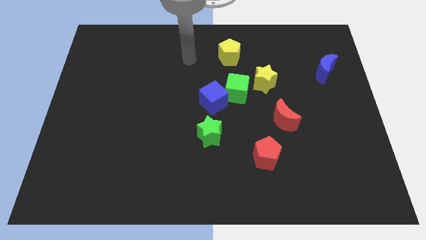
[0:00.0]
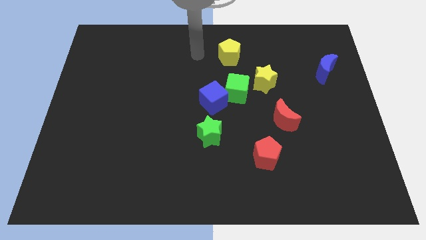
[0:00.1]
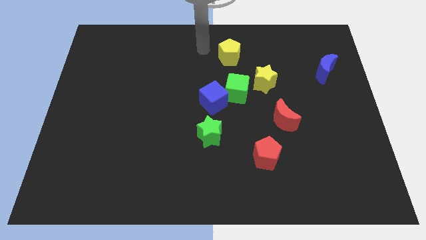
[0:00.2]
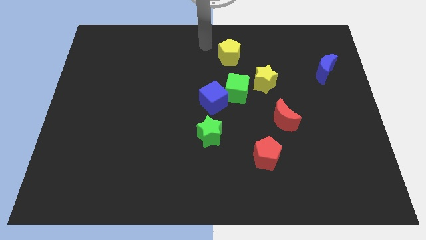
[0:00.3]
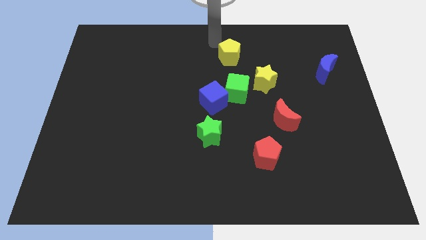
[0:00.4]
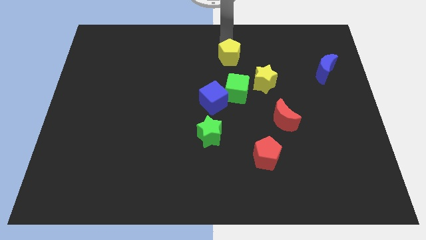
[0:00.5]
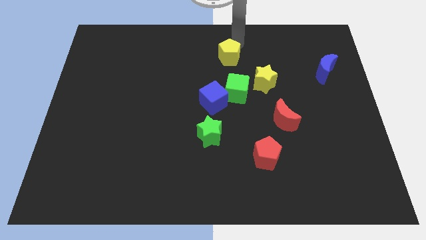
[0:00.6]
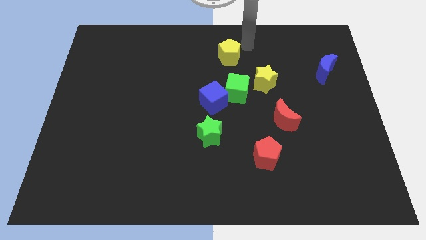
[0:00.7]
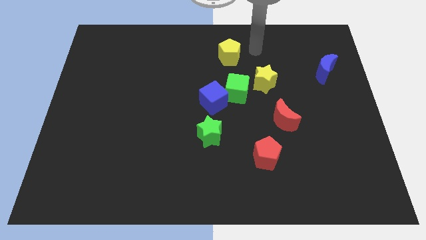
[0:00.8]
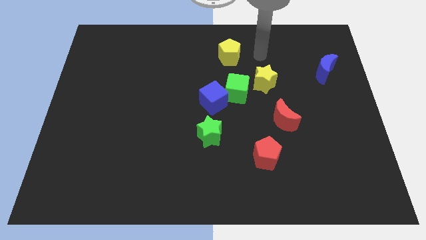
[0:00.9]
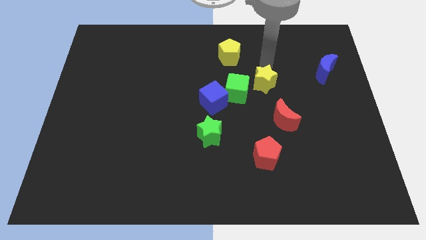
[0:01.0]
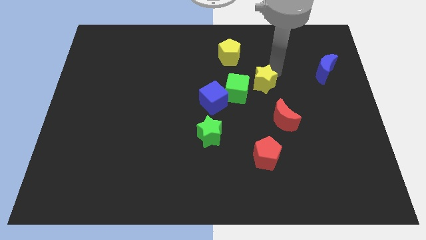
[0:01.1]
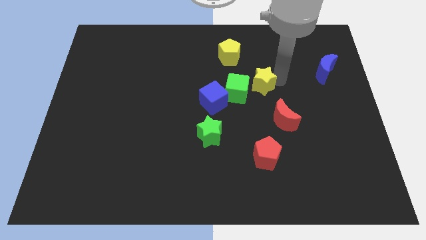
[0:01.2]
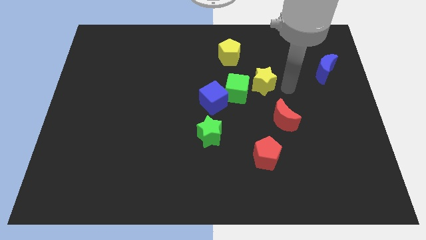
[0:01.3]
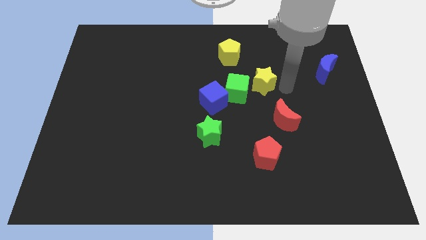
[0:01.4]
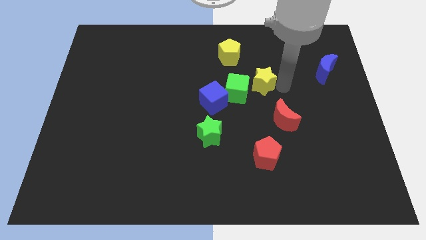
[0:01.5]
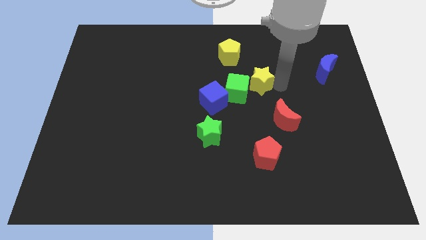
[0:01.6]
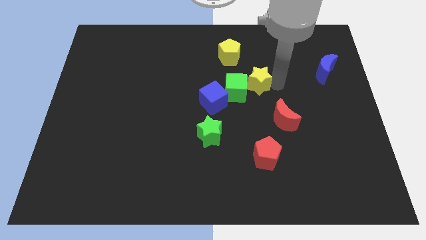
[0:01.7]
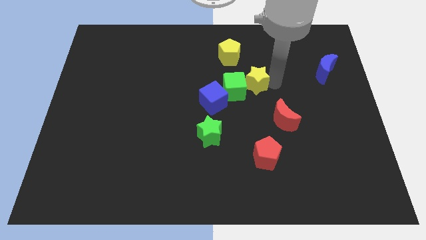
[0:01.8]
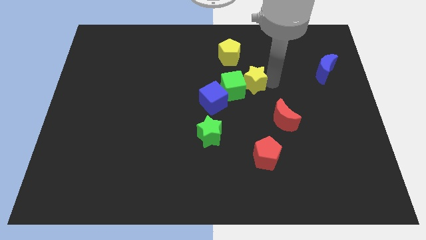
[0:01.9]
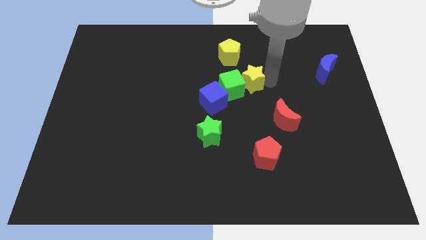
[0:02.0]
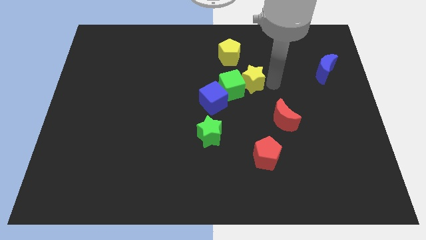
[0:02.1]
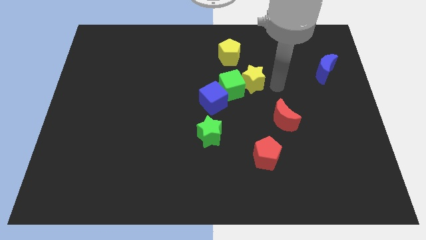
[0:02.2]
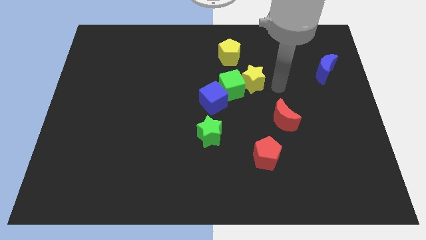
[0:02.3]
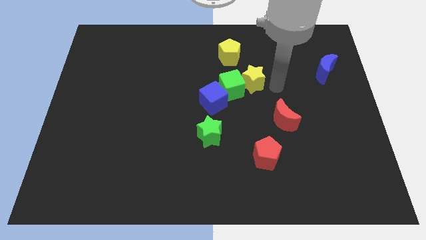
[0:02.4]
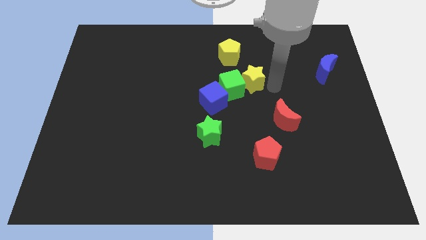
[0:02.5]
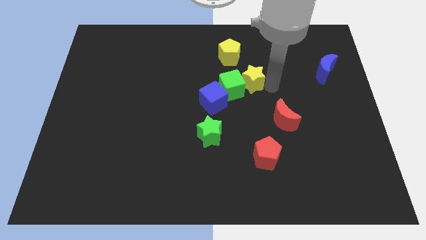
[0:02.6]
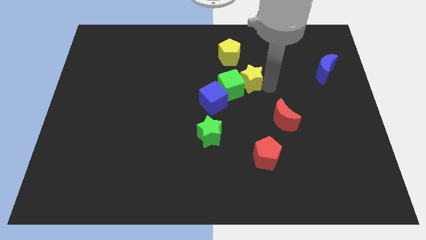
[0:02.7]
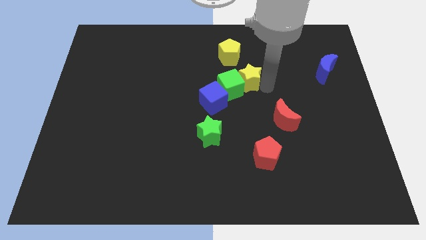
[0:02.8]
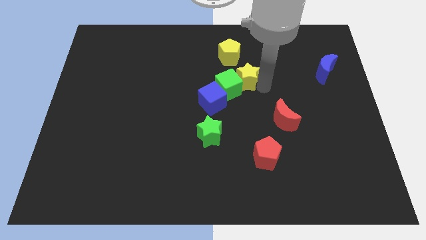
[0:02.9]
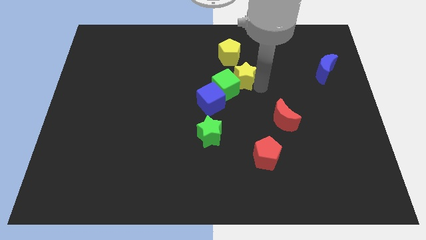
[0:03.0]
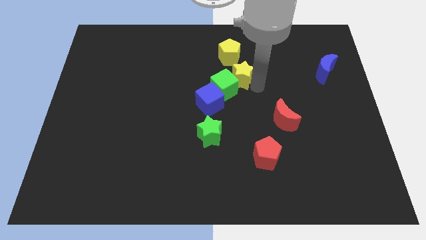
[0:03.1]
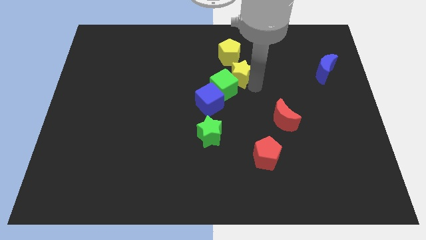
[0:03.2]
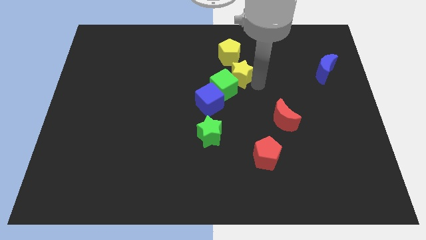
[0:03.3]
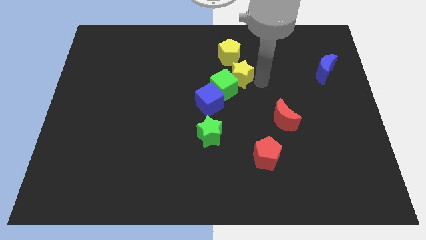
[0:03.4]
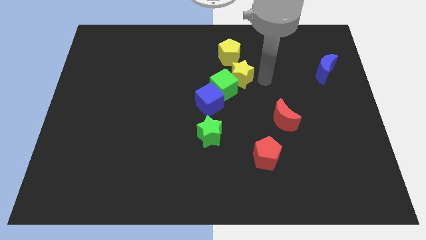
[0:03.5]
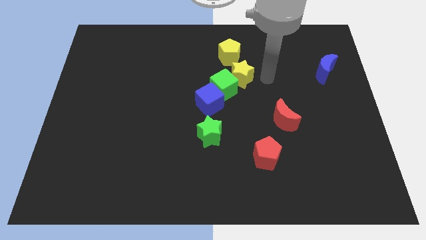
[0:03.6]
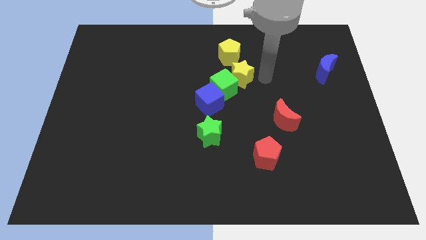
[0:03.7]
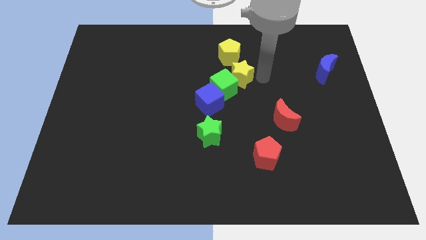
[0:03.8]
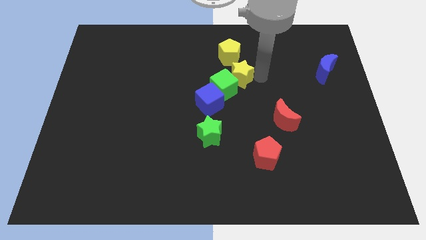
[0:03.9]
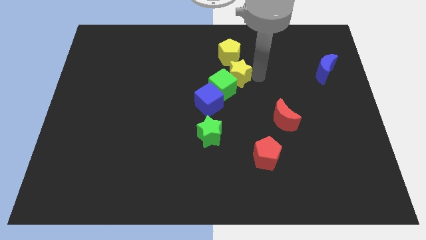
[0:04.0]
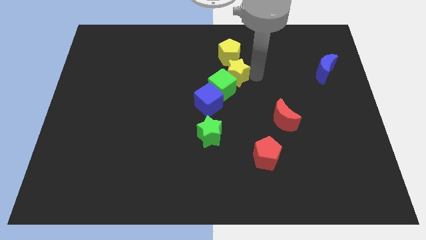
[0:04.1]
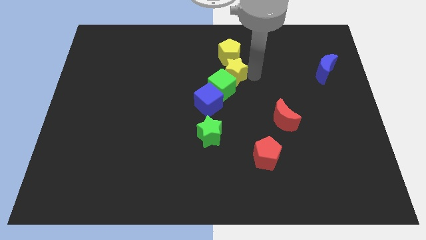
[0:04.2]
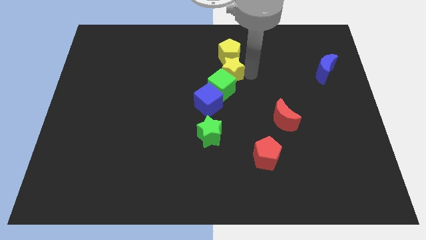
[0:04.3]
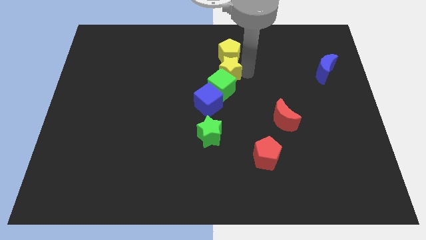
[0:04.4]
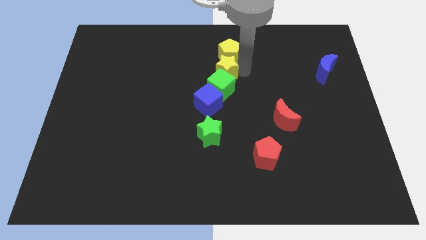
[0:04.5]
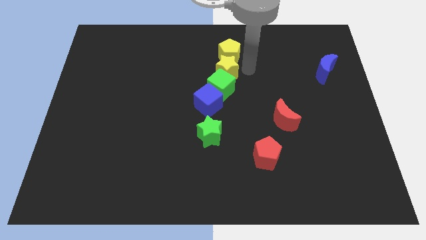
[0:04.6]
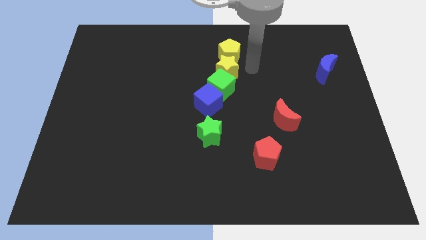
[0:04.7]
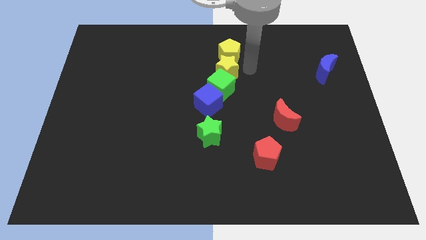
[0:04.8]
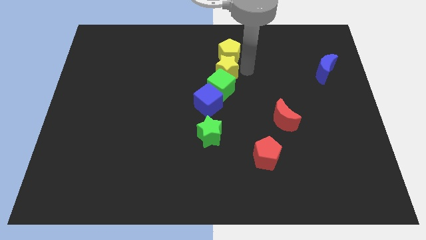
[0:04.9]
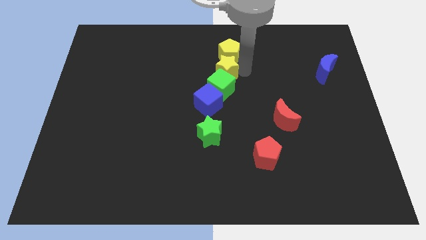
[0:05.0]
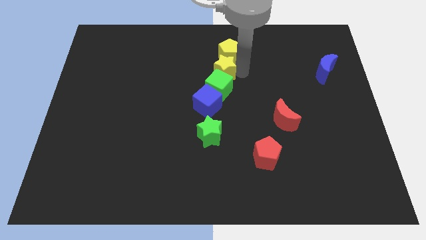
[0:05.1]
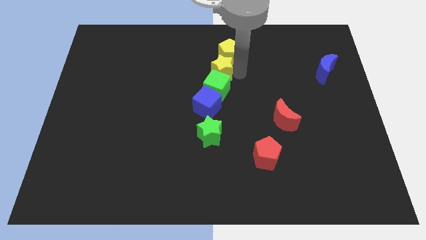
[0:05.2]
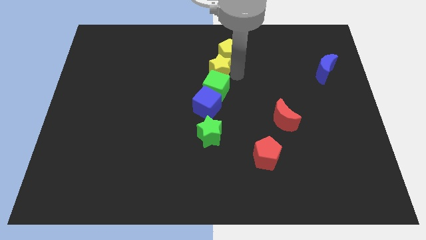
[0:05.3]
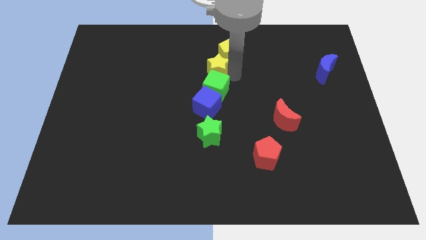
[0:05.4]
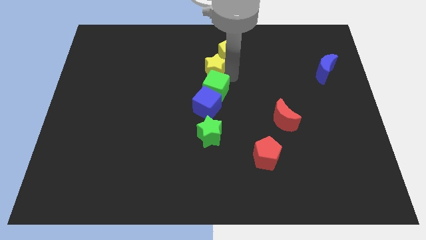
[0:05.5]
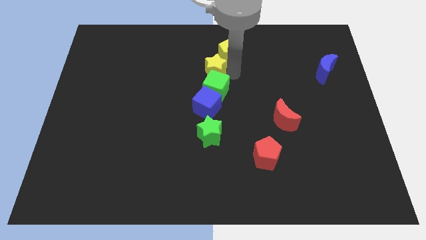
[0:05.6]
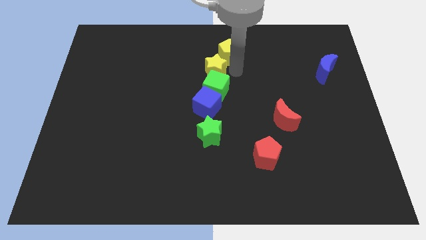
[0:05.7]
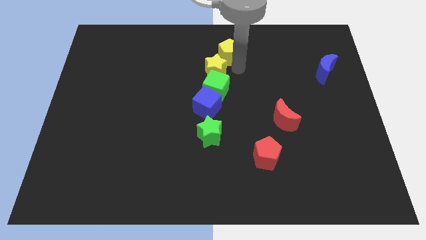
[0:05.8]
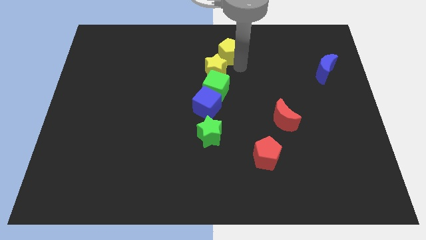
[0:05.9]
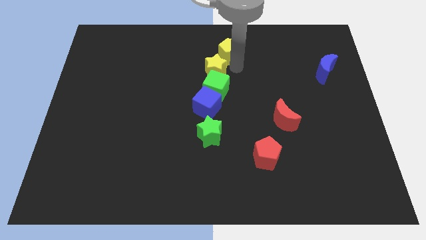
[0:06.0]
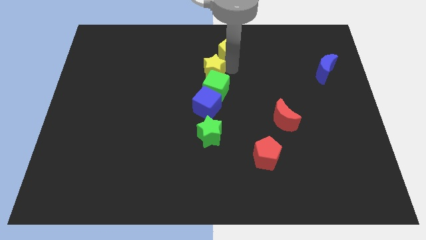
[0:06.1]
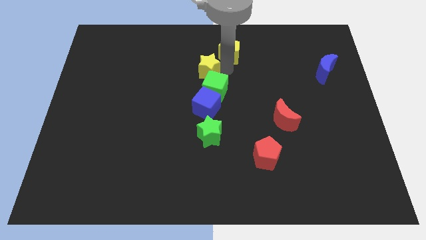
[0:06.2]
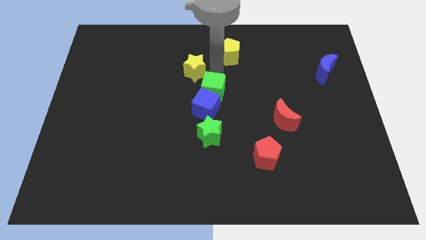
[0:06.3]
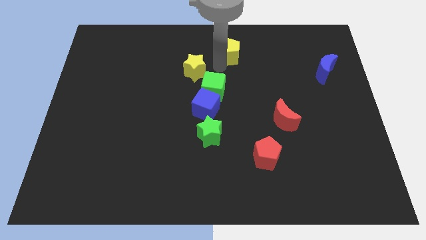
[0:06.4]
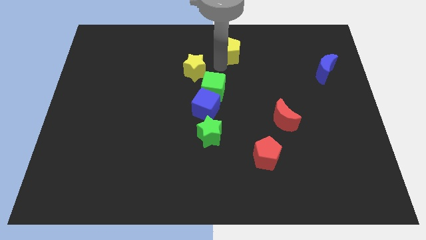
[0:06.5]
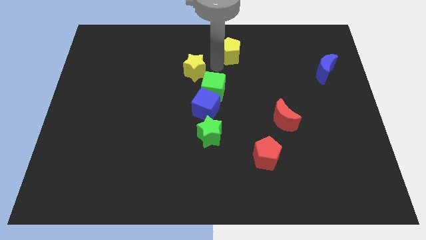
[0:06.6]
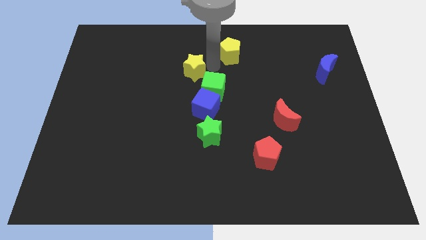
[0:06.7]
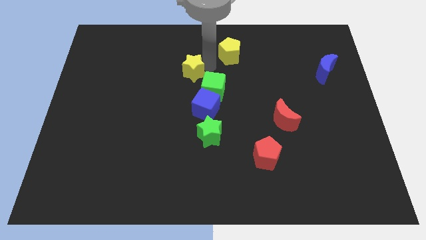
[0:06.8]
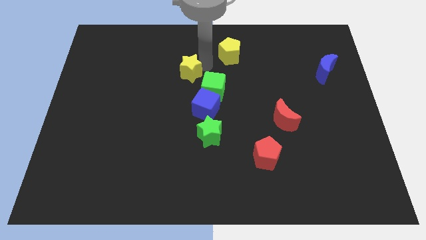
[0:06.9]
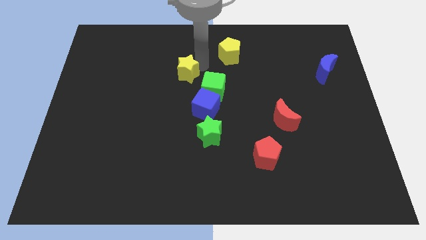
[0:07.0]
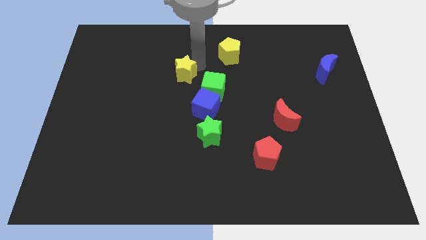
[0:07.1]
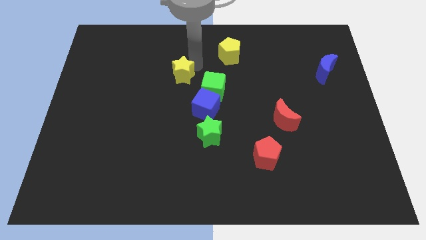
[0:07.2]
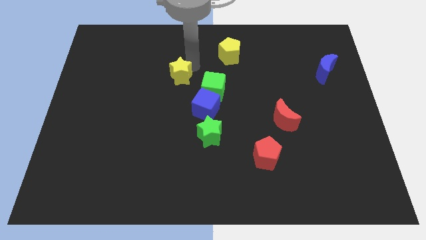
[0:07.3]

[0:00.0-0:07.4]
move the yellow star left

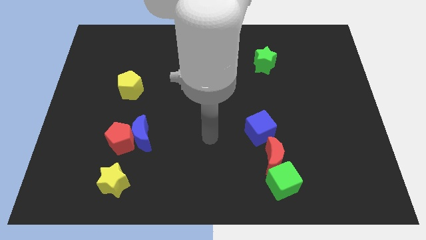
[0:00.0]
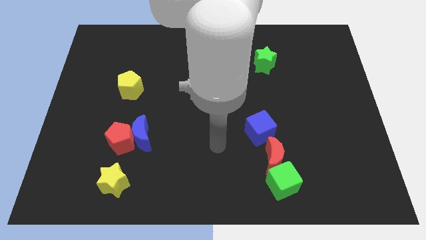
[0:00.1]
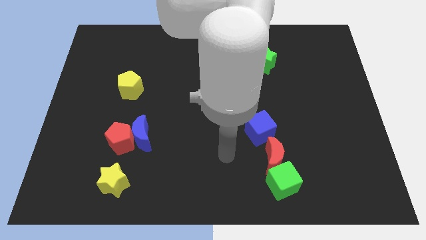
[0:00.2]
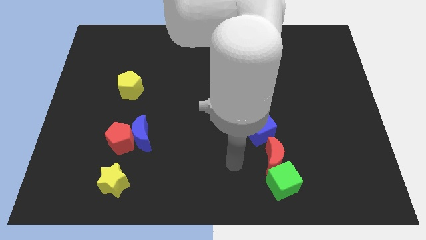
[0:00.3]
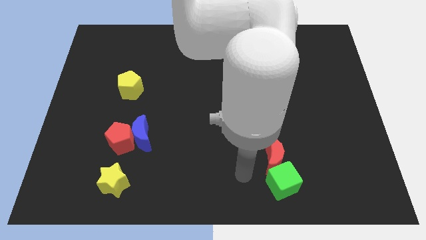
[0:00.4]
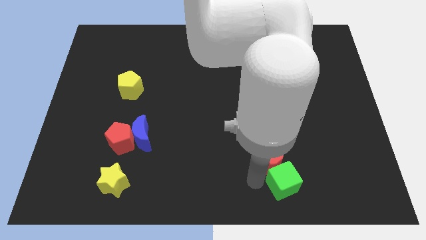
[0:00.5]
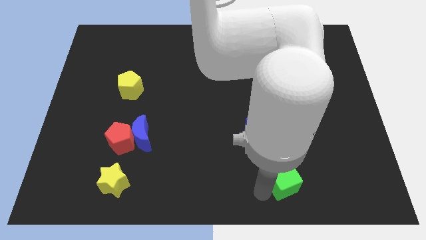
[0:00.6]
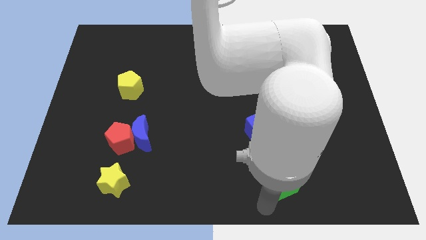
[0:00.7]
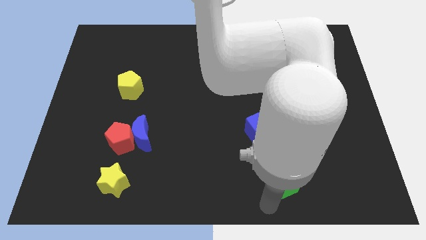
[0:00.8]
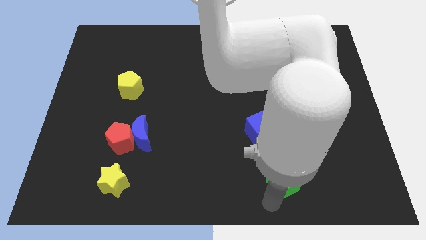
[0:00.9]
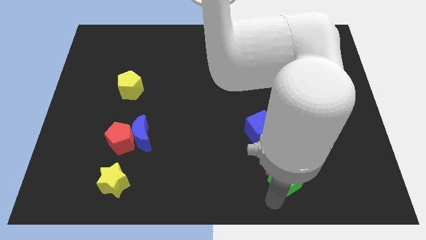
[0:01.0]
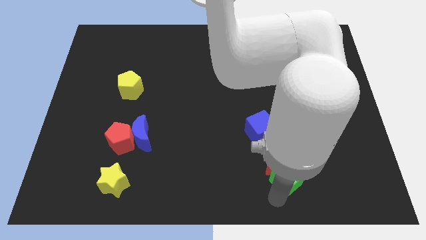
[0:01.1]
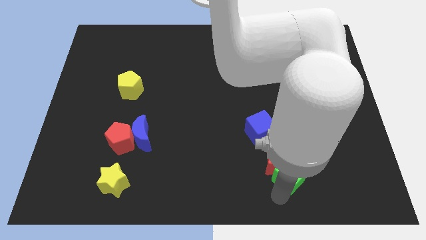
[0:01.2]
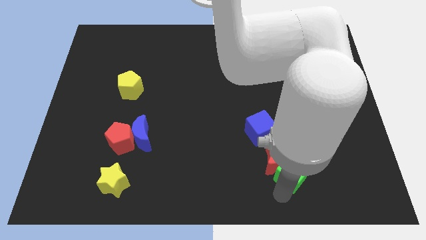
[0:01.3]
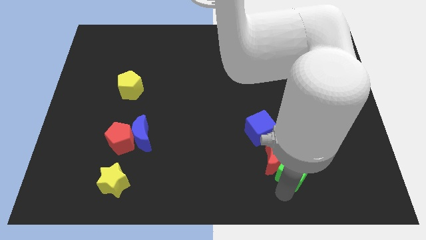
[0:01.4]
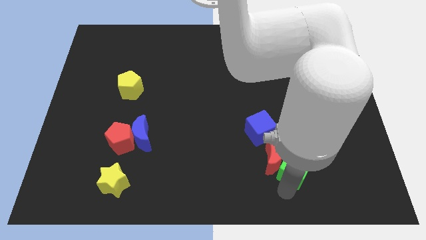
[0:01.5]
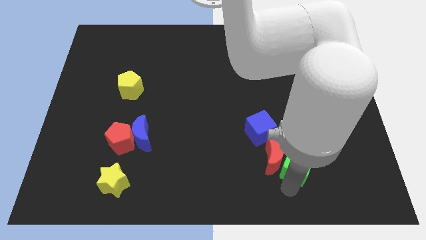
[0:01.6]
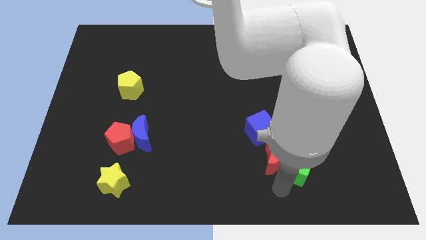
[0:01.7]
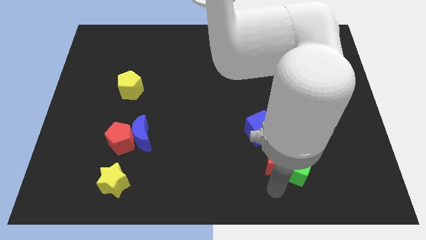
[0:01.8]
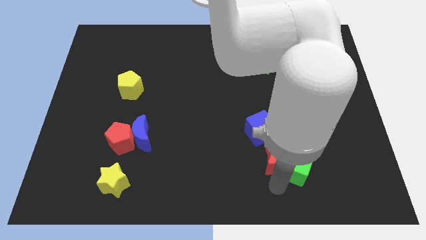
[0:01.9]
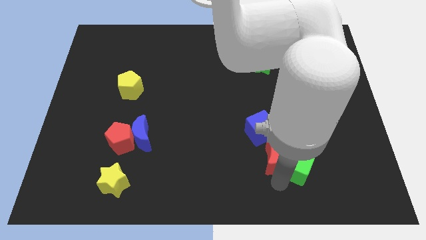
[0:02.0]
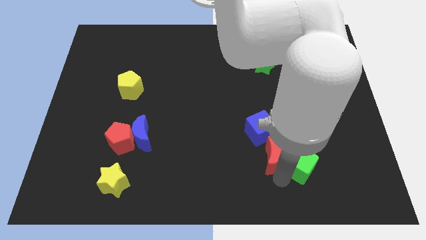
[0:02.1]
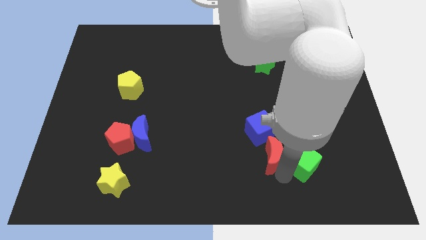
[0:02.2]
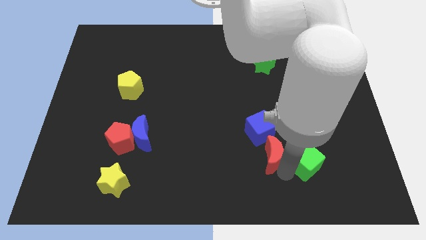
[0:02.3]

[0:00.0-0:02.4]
move the green cube slightly upwards and right
